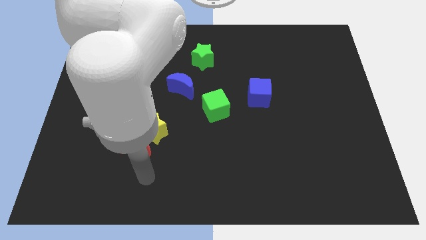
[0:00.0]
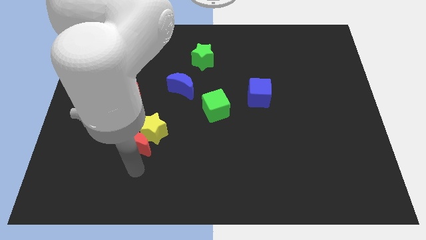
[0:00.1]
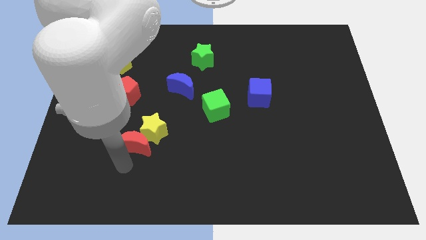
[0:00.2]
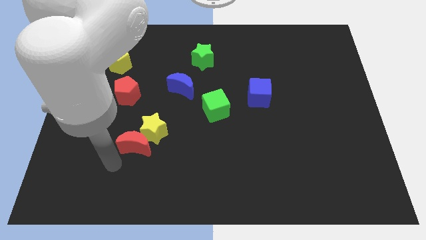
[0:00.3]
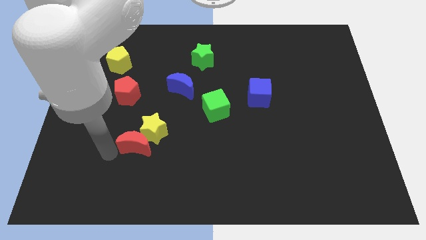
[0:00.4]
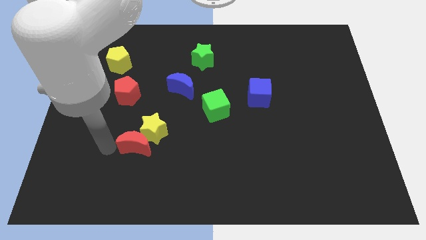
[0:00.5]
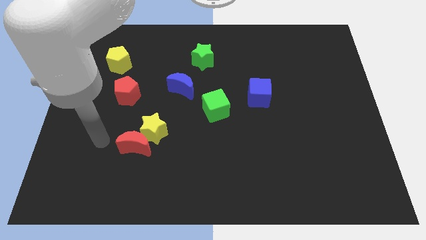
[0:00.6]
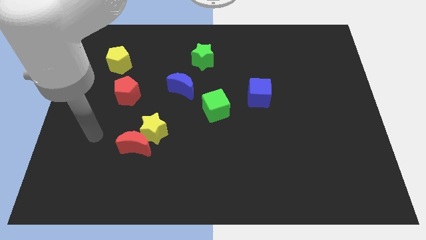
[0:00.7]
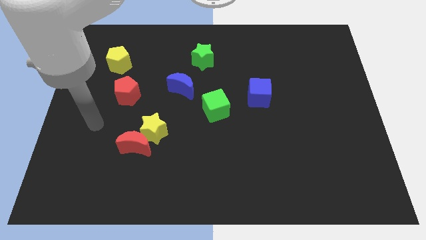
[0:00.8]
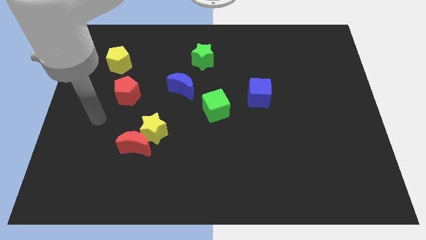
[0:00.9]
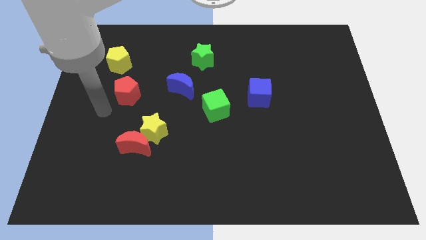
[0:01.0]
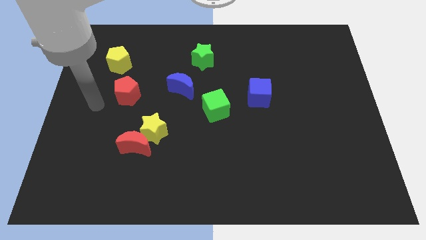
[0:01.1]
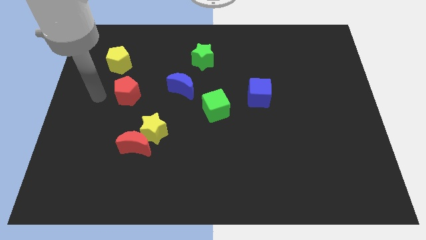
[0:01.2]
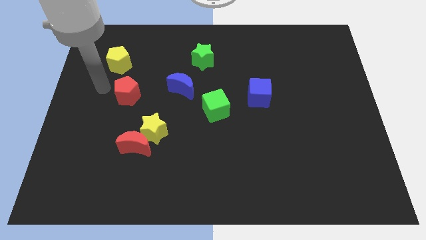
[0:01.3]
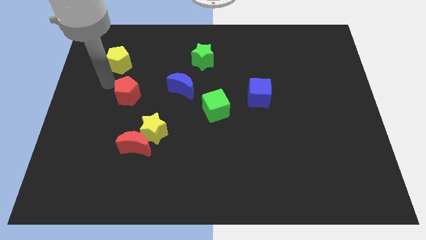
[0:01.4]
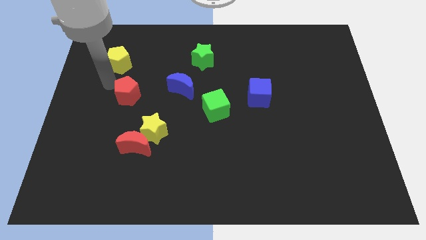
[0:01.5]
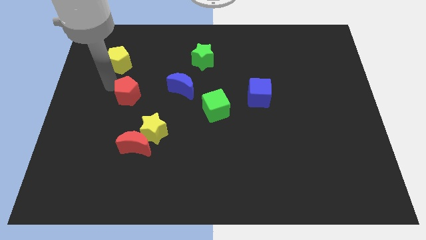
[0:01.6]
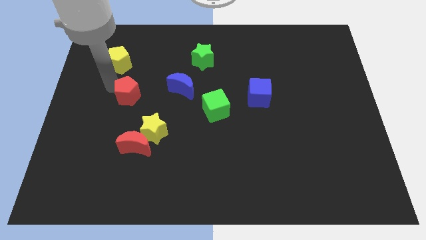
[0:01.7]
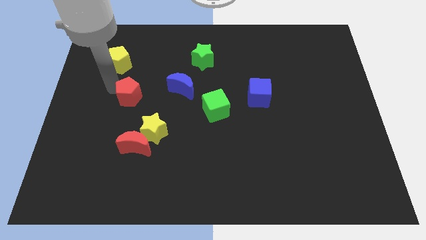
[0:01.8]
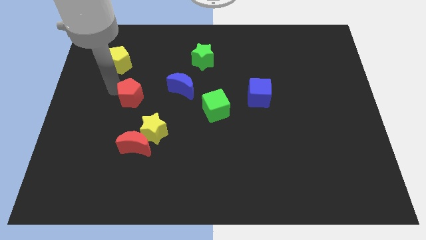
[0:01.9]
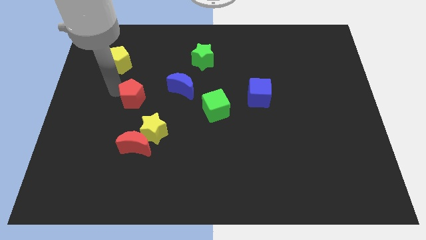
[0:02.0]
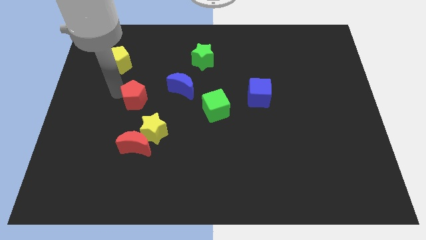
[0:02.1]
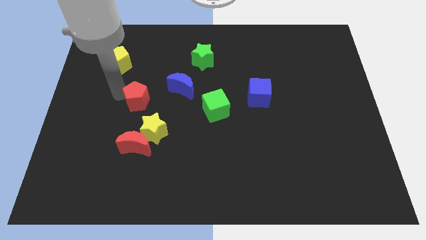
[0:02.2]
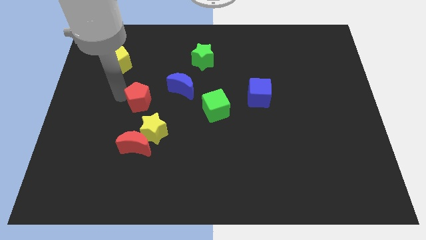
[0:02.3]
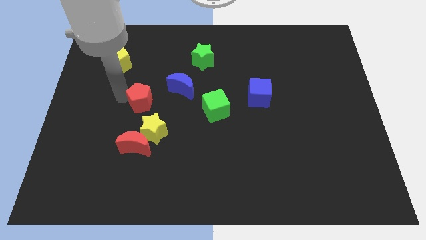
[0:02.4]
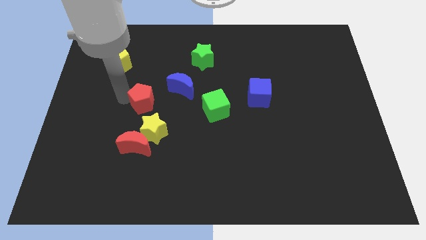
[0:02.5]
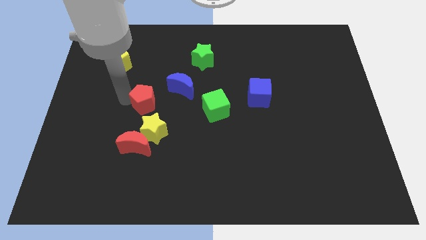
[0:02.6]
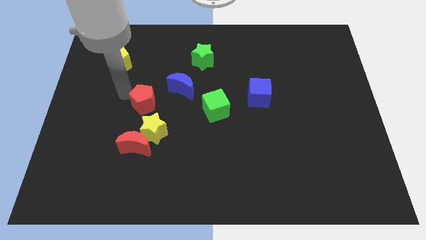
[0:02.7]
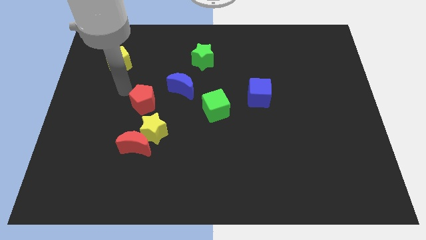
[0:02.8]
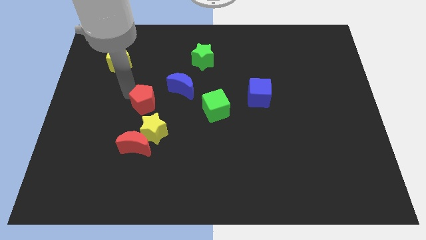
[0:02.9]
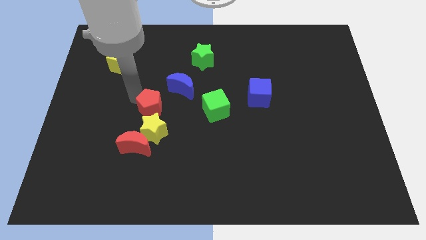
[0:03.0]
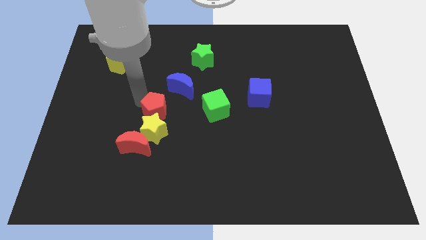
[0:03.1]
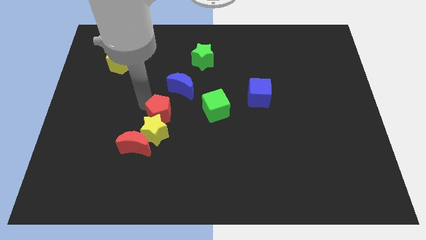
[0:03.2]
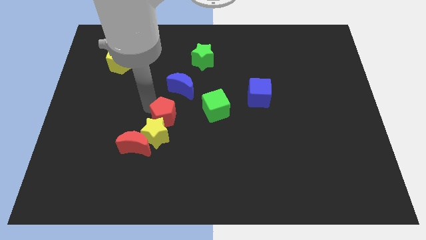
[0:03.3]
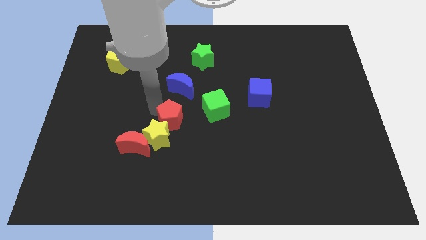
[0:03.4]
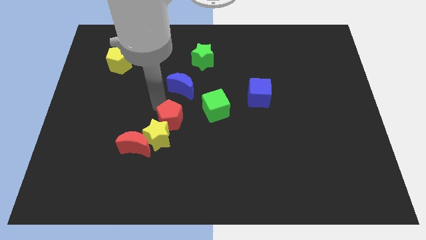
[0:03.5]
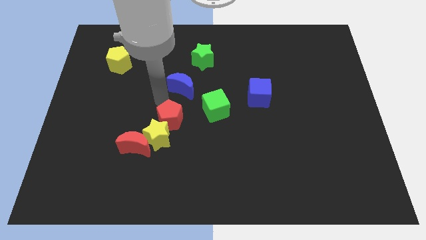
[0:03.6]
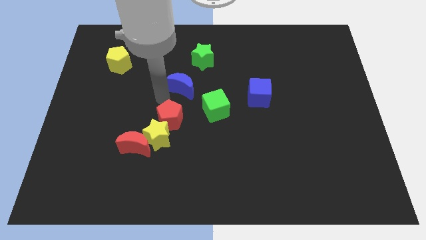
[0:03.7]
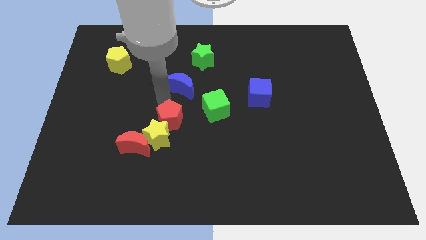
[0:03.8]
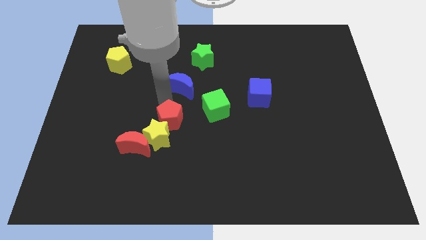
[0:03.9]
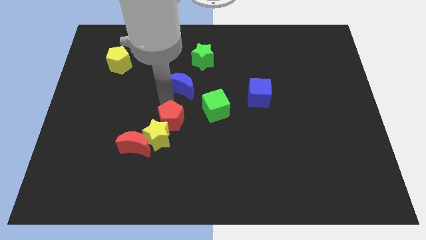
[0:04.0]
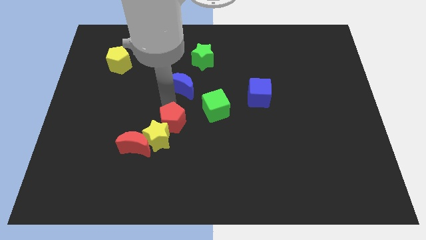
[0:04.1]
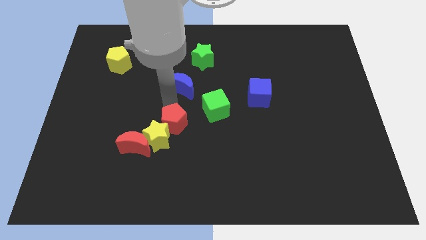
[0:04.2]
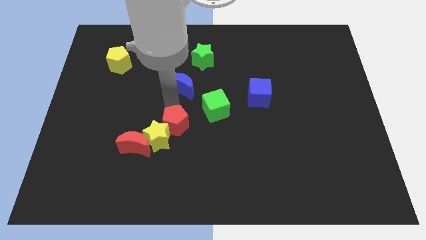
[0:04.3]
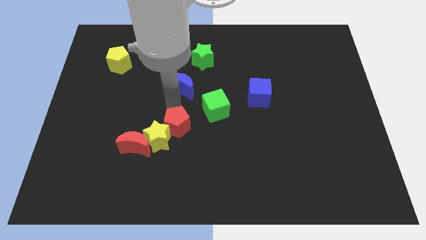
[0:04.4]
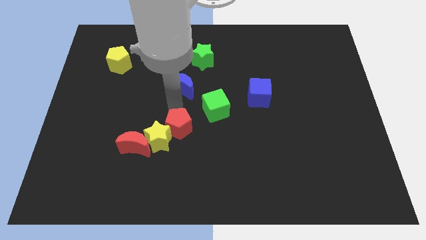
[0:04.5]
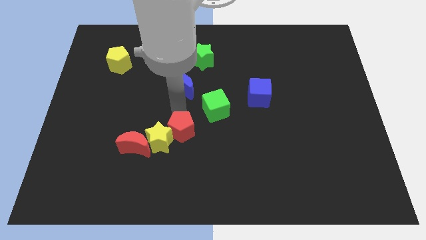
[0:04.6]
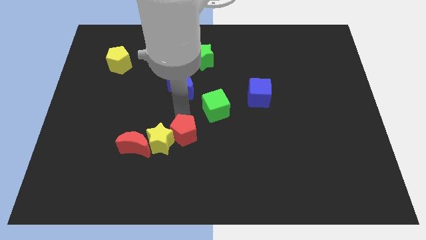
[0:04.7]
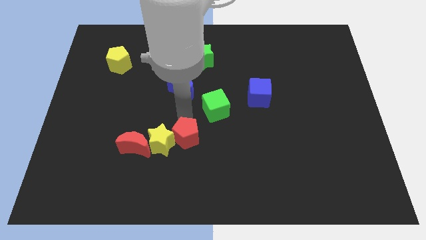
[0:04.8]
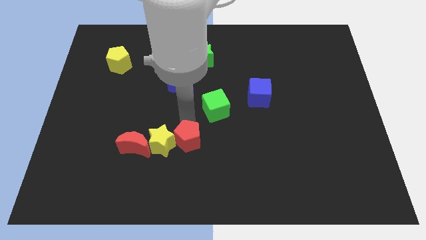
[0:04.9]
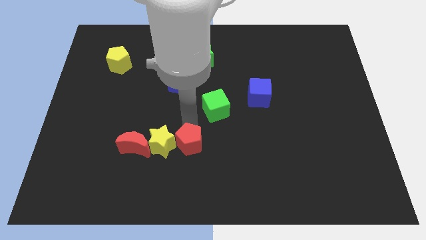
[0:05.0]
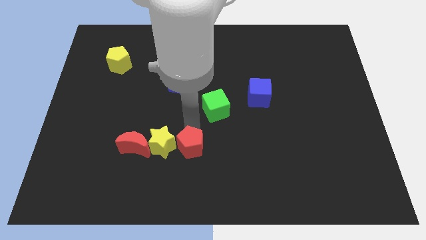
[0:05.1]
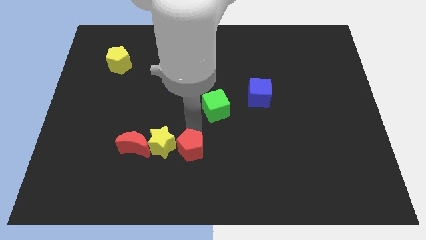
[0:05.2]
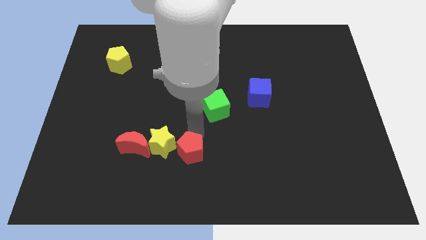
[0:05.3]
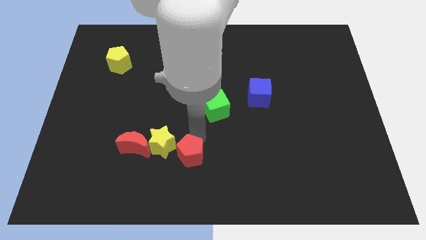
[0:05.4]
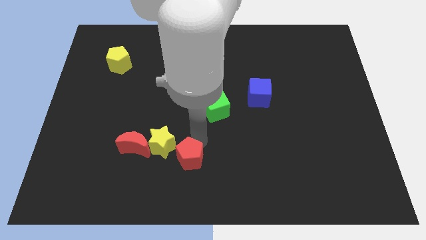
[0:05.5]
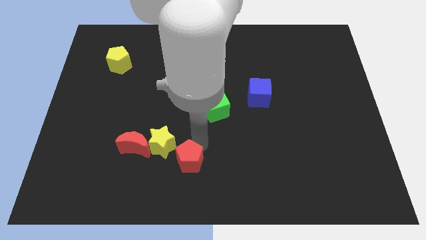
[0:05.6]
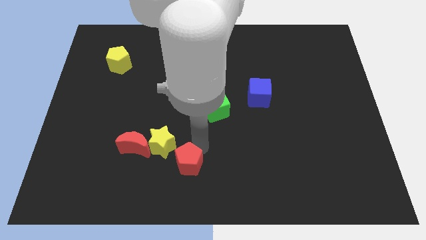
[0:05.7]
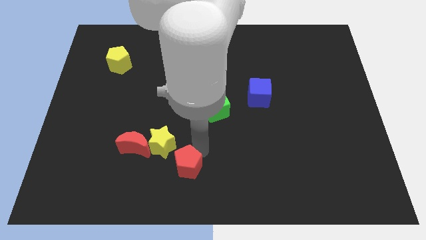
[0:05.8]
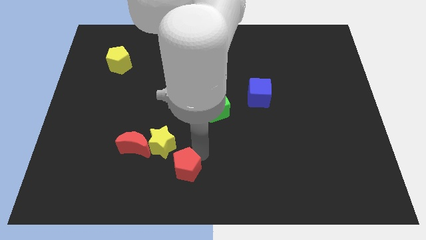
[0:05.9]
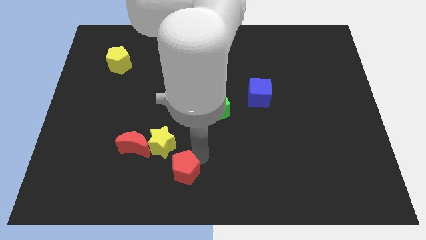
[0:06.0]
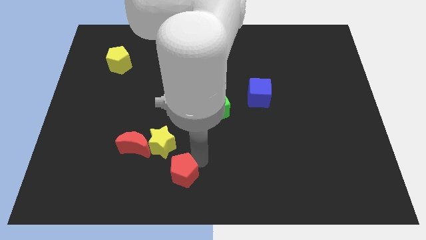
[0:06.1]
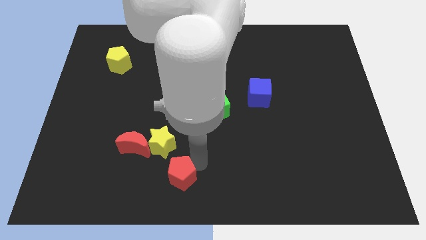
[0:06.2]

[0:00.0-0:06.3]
push the red pentagon diagonally down and to the right of the red moon
